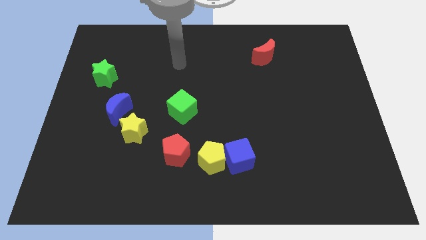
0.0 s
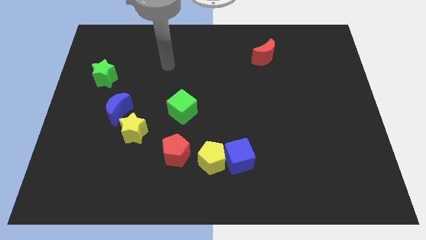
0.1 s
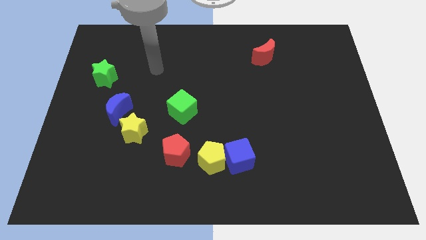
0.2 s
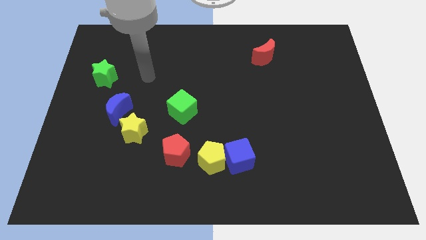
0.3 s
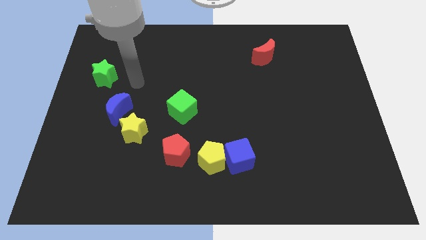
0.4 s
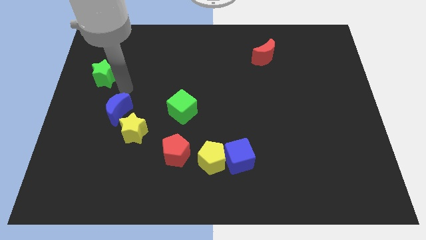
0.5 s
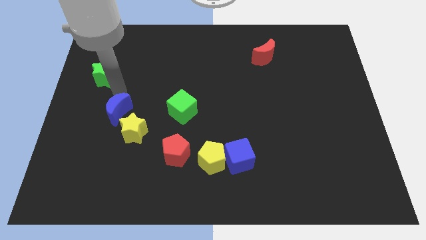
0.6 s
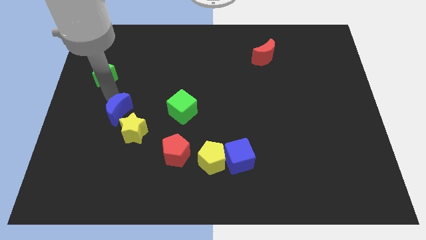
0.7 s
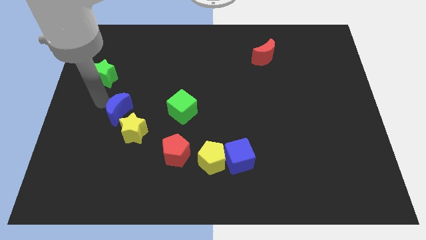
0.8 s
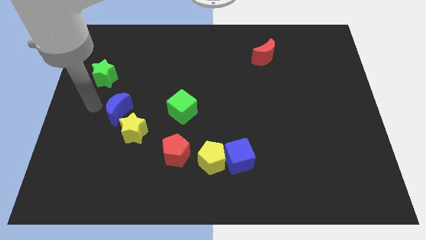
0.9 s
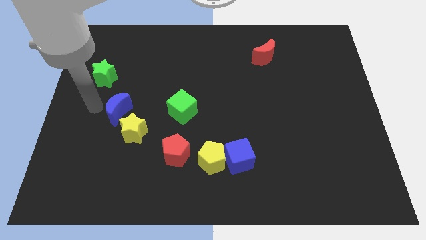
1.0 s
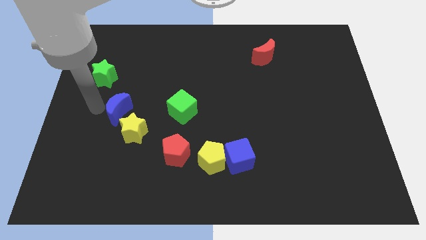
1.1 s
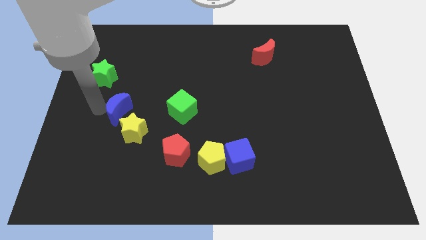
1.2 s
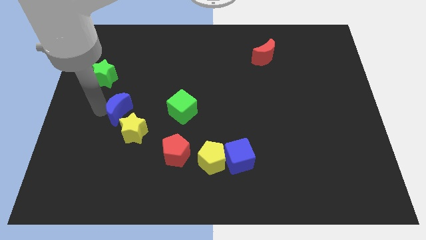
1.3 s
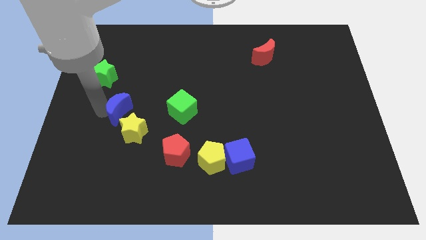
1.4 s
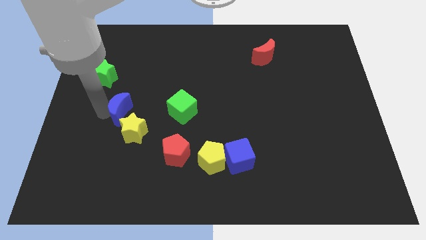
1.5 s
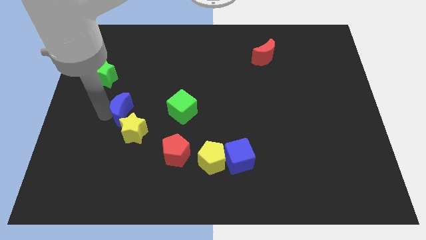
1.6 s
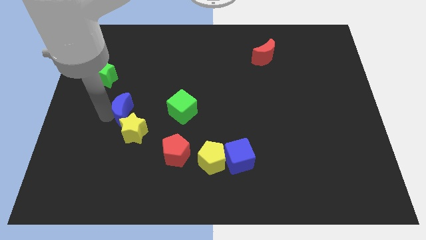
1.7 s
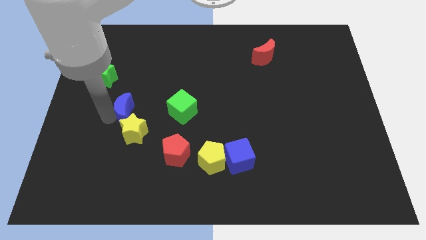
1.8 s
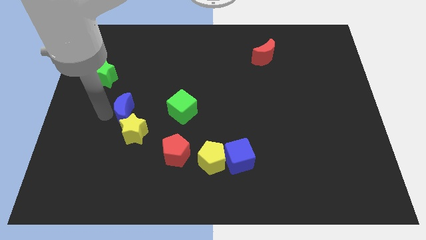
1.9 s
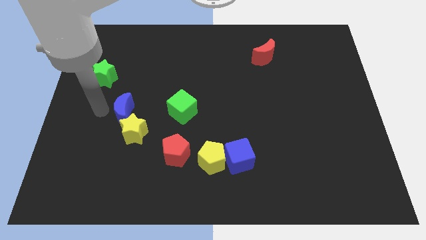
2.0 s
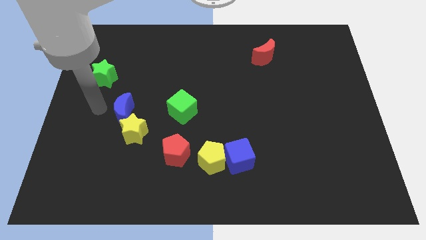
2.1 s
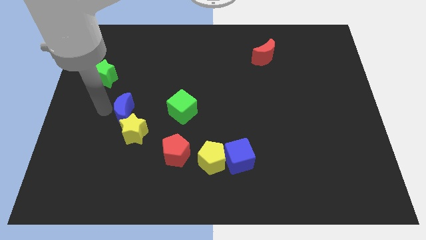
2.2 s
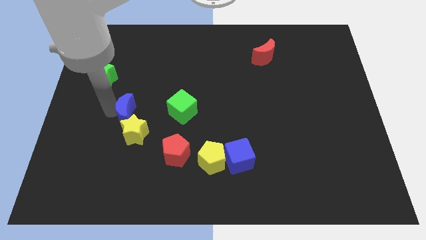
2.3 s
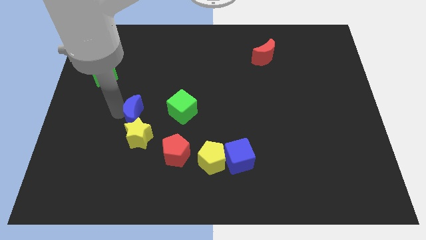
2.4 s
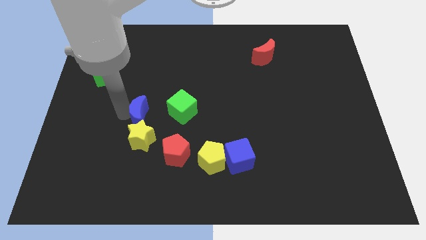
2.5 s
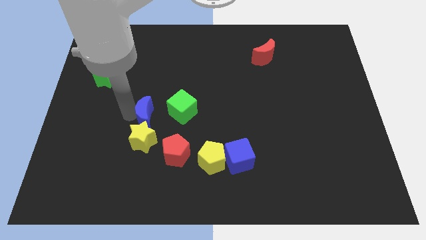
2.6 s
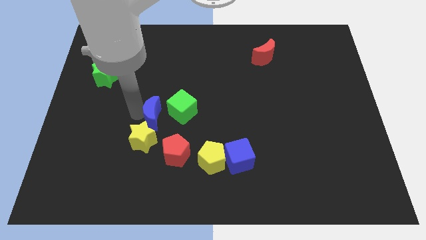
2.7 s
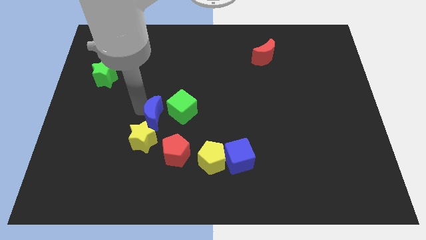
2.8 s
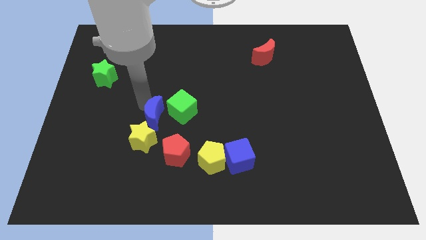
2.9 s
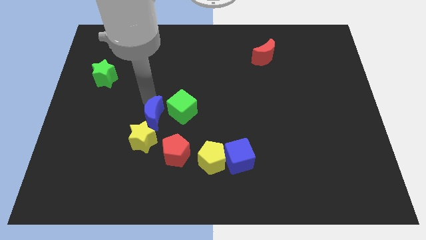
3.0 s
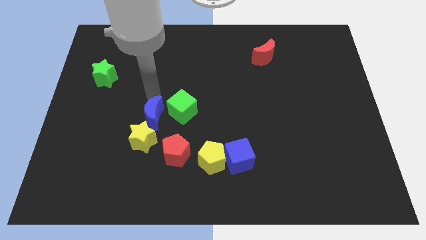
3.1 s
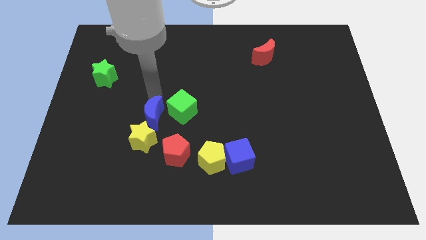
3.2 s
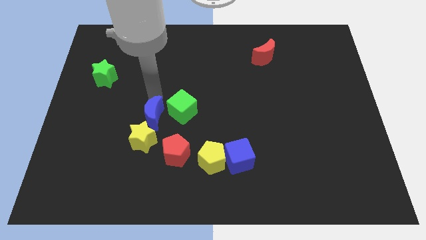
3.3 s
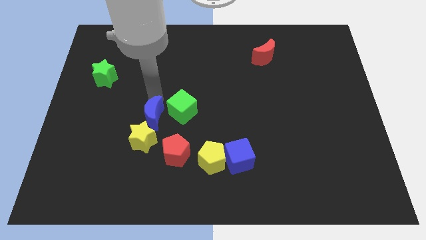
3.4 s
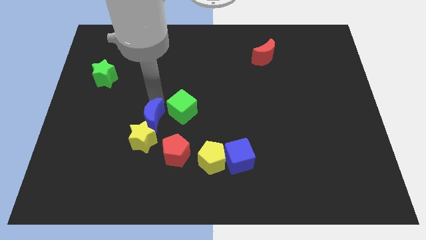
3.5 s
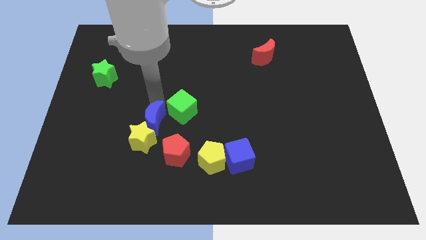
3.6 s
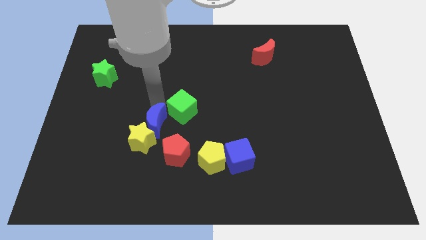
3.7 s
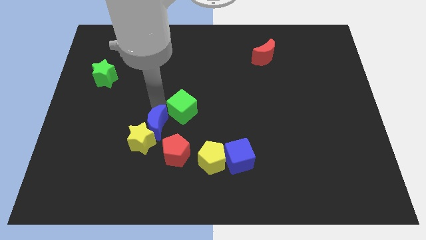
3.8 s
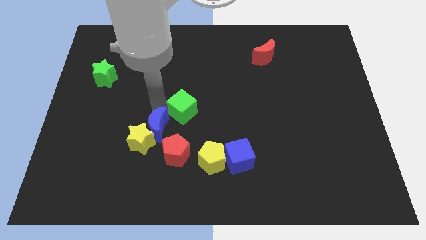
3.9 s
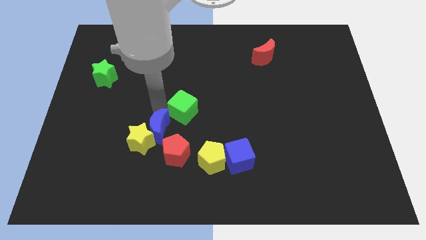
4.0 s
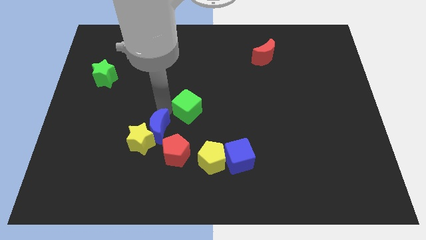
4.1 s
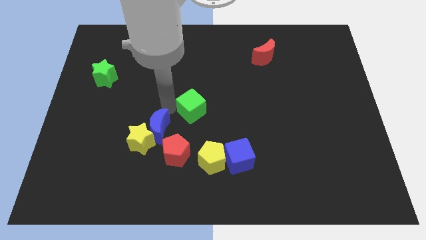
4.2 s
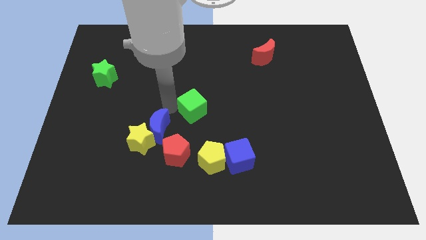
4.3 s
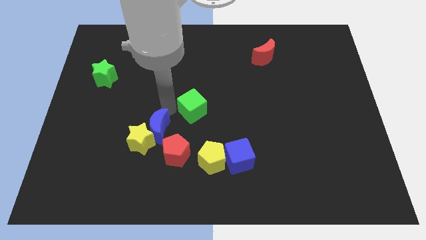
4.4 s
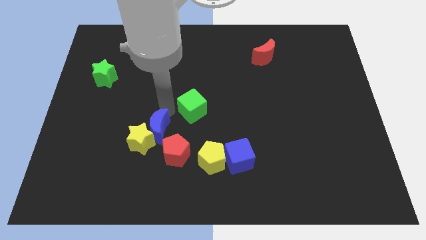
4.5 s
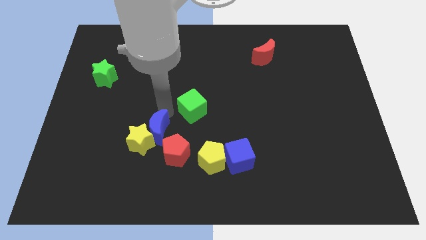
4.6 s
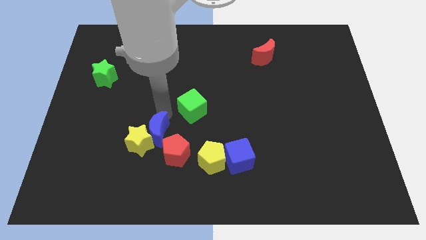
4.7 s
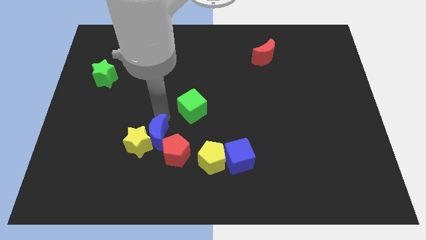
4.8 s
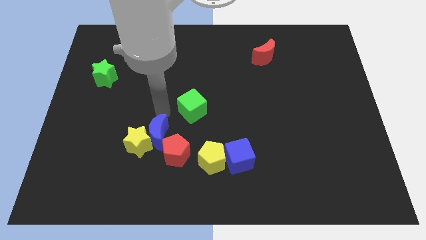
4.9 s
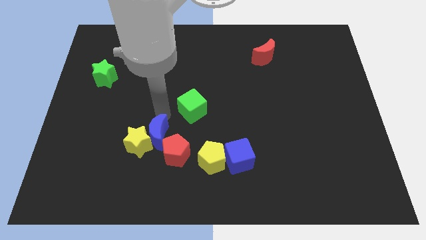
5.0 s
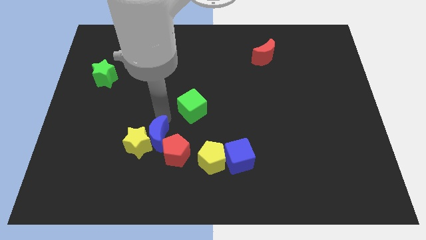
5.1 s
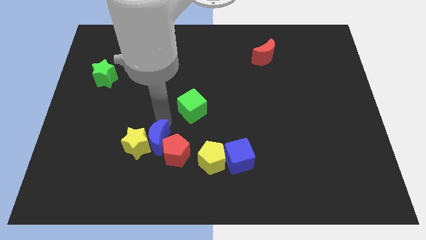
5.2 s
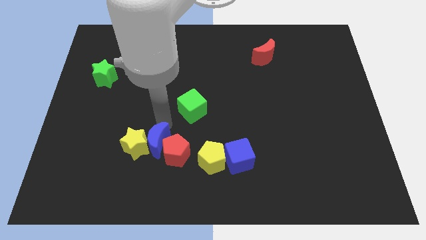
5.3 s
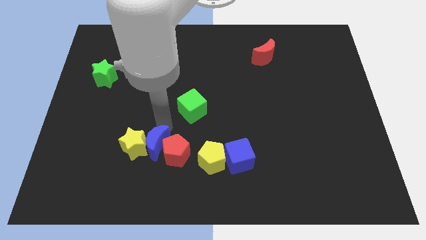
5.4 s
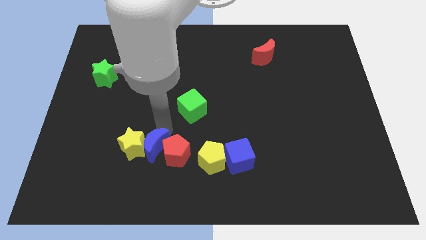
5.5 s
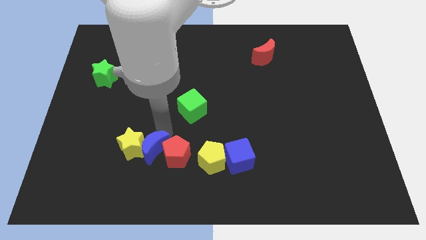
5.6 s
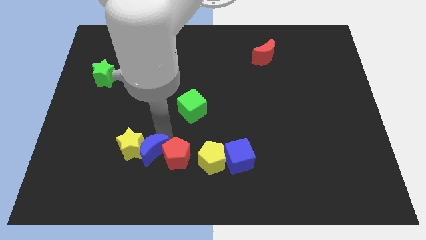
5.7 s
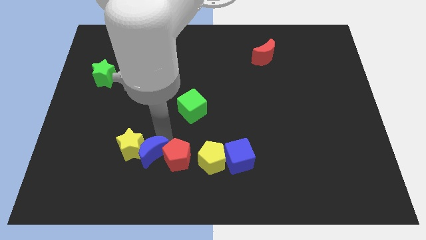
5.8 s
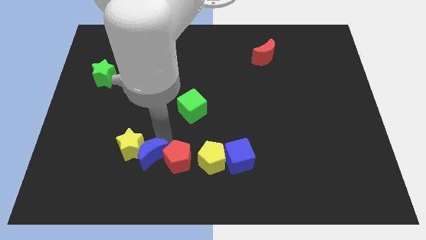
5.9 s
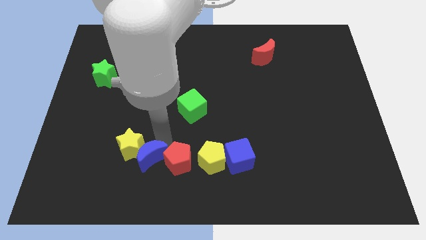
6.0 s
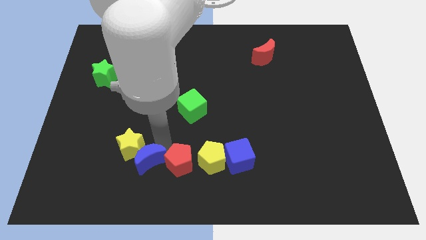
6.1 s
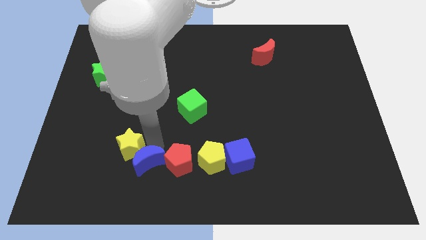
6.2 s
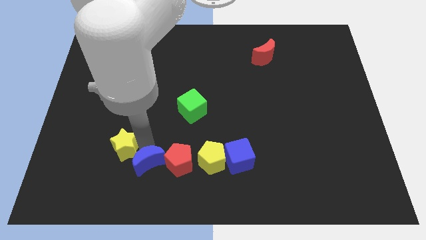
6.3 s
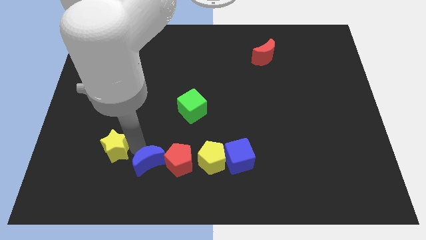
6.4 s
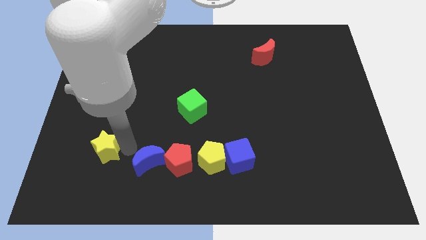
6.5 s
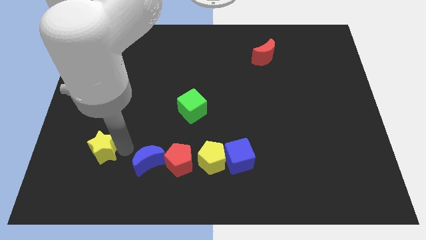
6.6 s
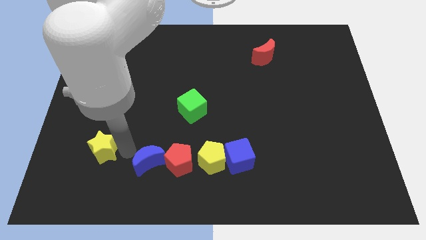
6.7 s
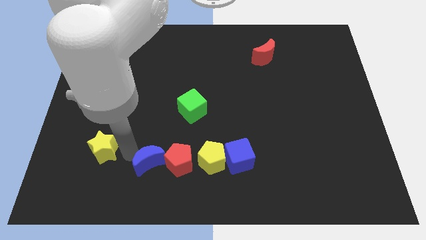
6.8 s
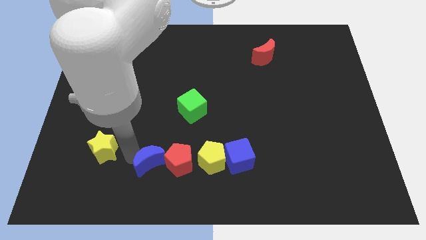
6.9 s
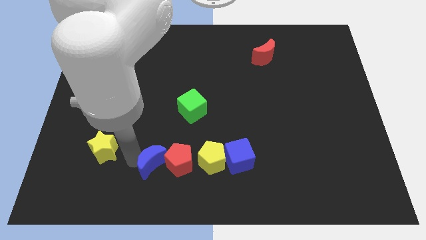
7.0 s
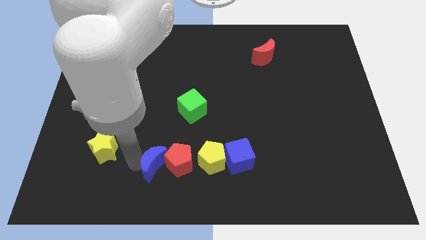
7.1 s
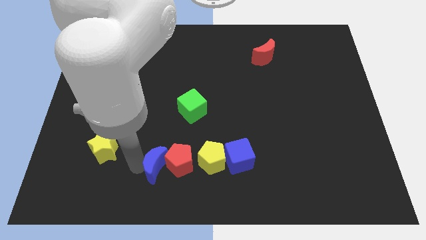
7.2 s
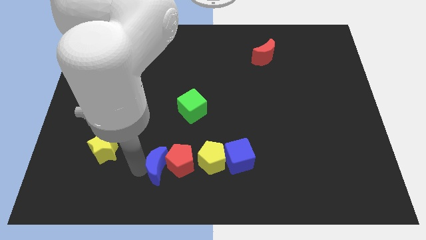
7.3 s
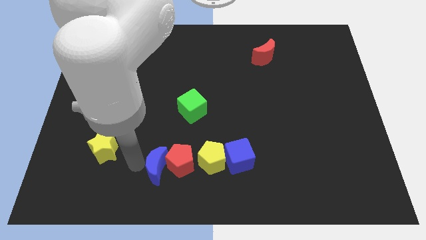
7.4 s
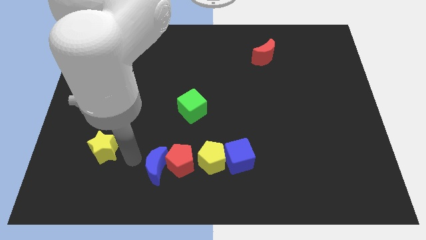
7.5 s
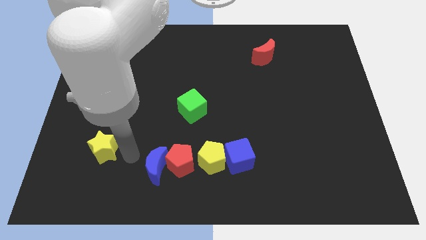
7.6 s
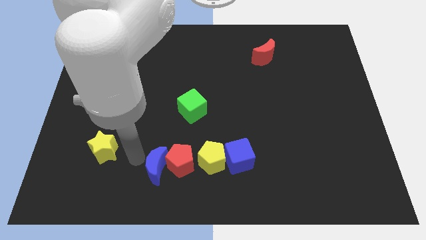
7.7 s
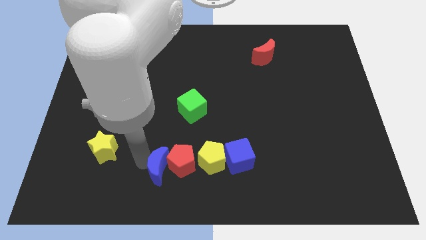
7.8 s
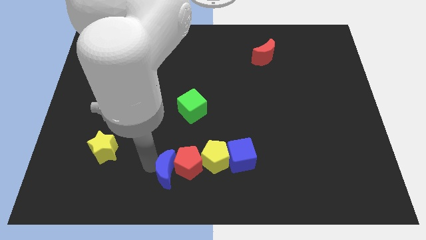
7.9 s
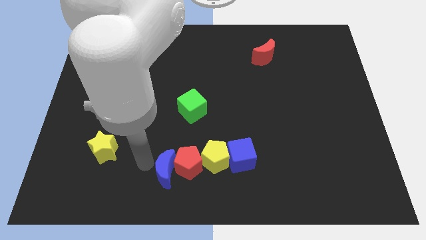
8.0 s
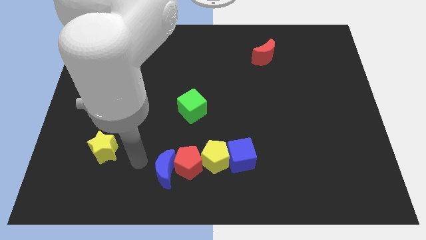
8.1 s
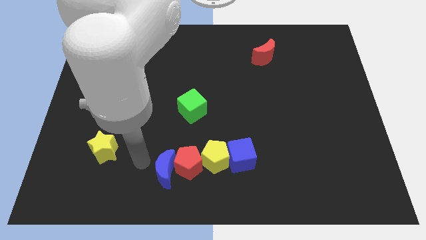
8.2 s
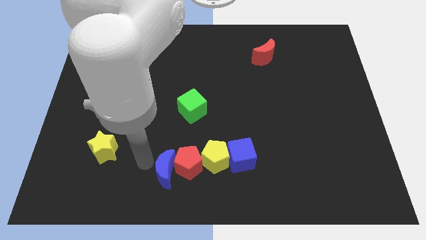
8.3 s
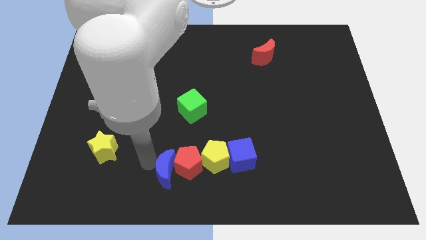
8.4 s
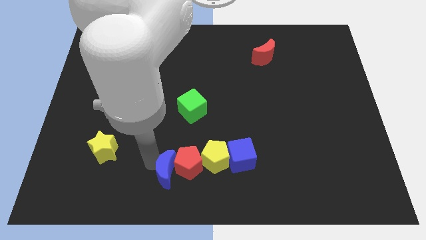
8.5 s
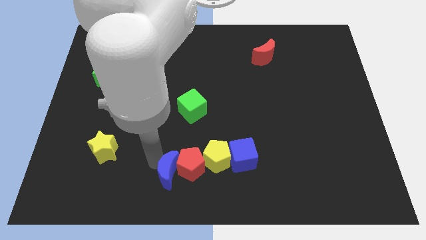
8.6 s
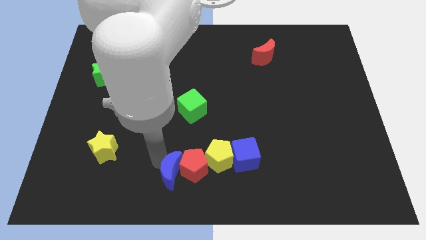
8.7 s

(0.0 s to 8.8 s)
move the blue moon to the bottom left side of the yellow pentagon
